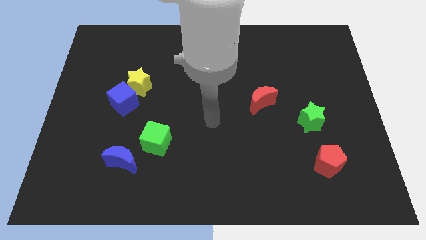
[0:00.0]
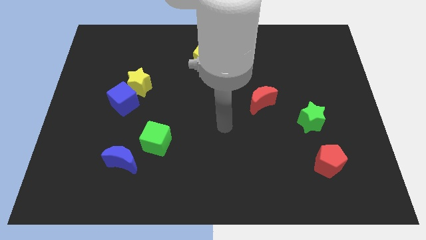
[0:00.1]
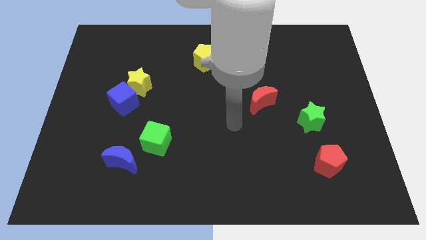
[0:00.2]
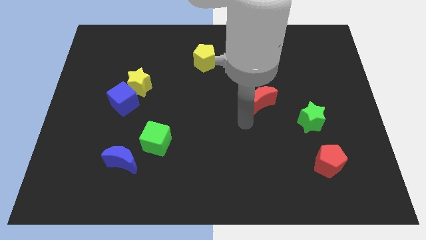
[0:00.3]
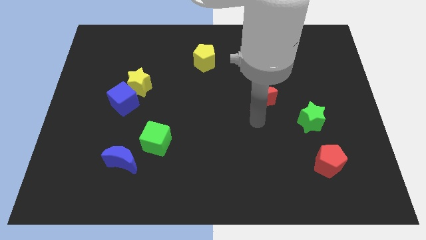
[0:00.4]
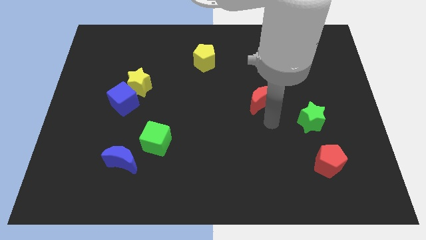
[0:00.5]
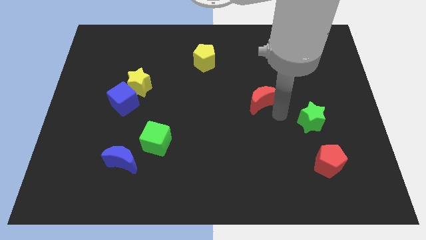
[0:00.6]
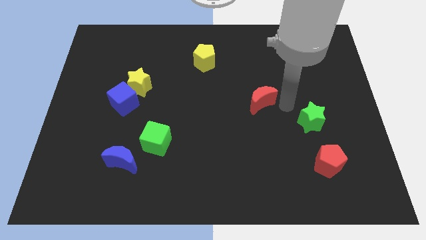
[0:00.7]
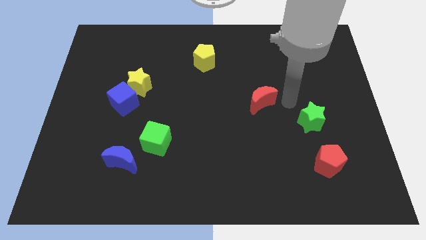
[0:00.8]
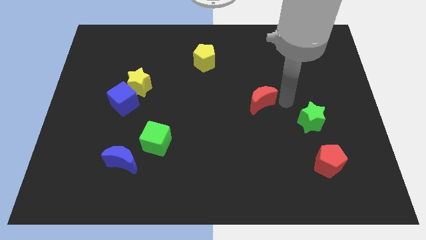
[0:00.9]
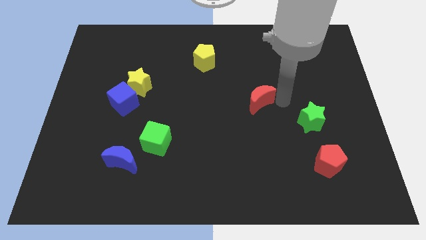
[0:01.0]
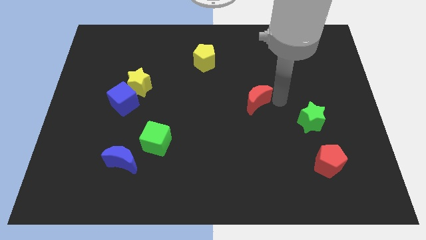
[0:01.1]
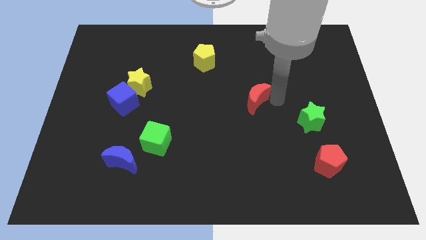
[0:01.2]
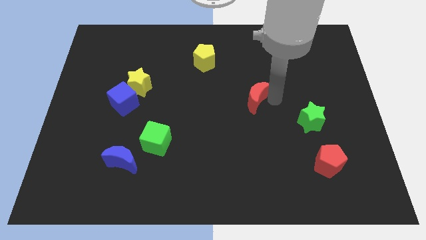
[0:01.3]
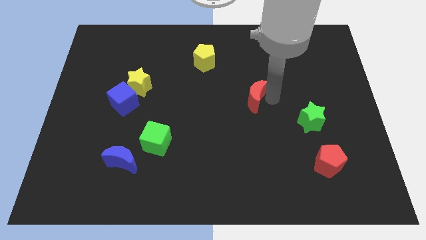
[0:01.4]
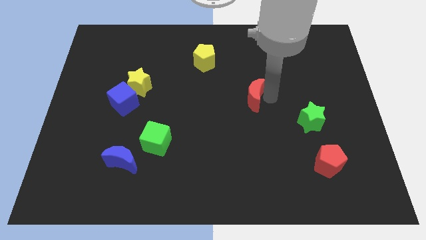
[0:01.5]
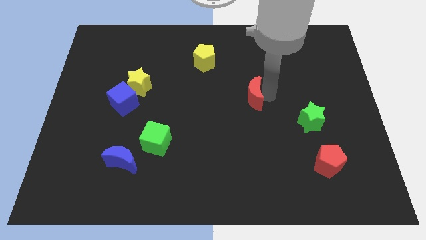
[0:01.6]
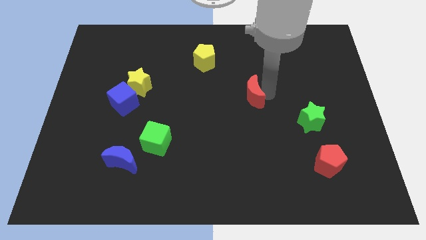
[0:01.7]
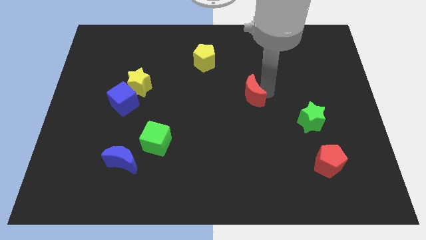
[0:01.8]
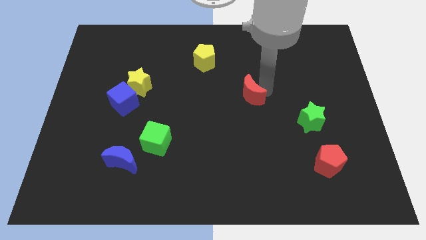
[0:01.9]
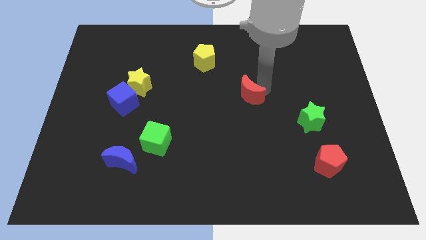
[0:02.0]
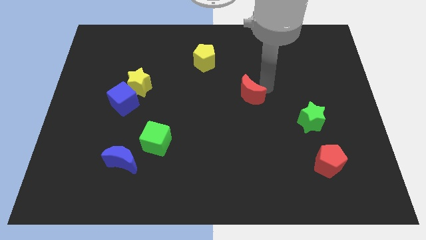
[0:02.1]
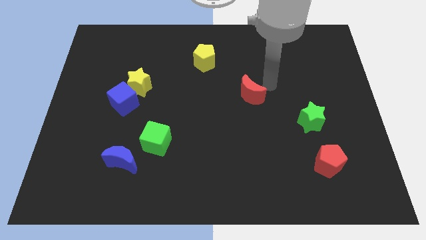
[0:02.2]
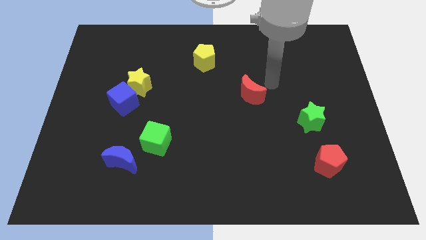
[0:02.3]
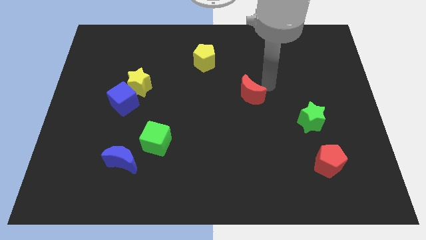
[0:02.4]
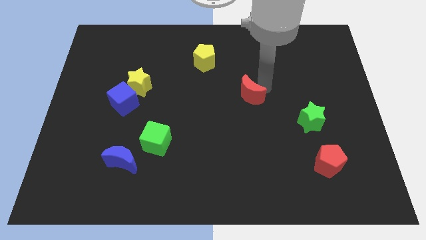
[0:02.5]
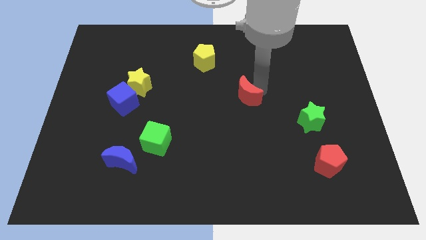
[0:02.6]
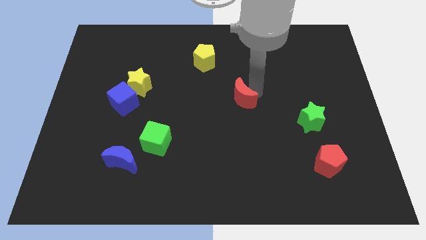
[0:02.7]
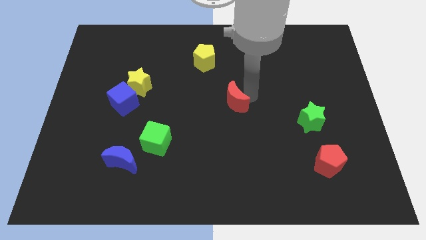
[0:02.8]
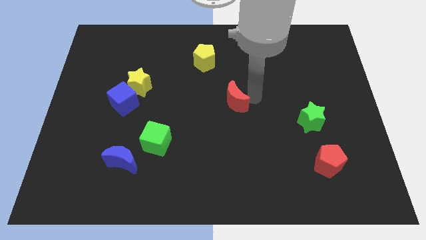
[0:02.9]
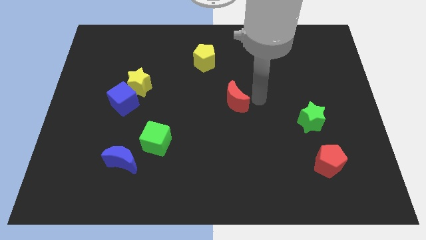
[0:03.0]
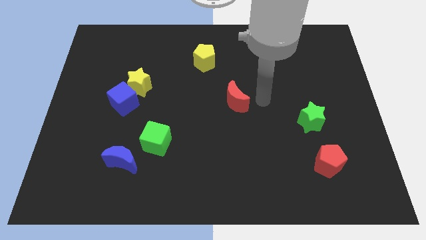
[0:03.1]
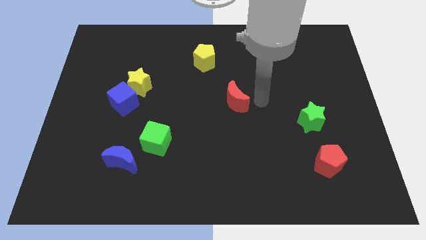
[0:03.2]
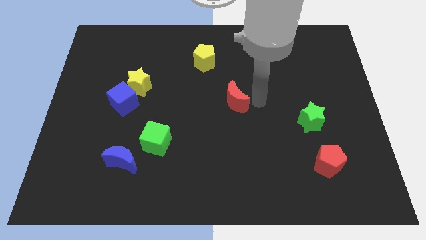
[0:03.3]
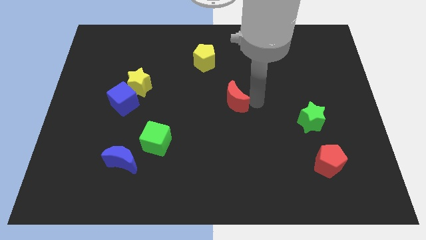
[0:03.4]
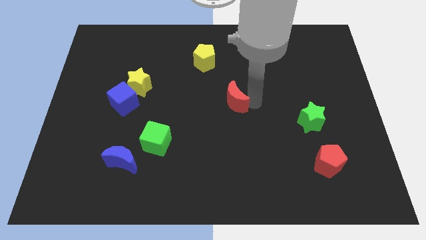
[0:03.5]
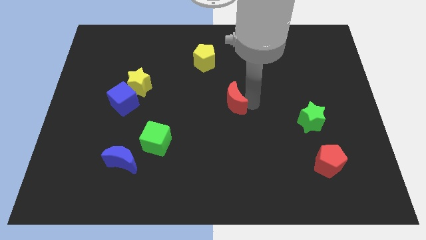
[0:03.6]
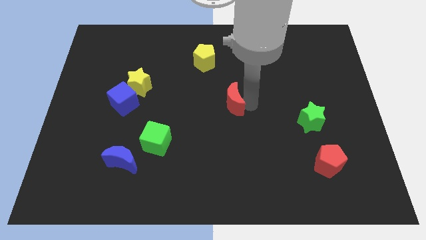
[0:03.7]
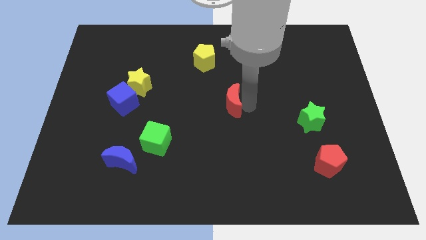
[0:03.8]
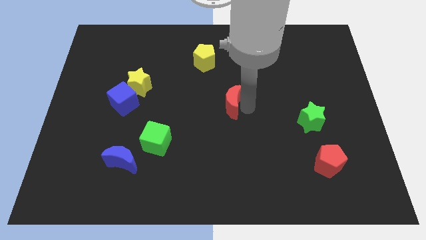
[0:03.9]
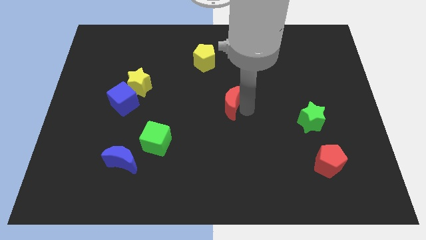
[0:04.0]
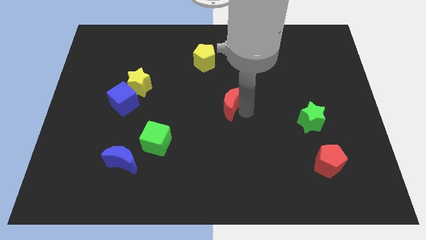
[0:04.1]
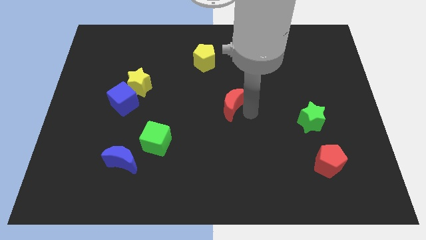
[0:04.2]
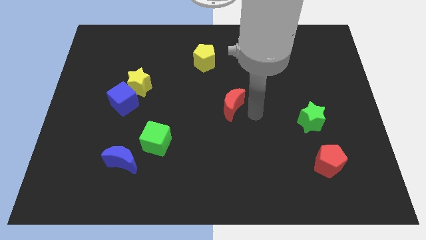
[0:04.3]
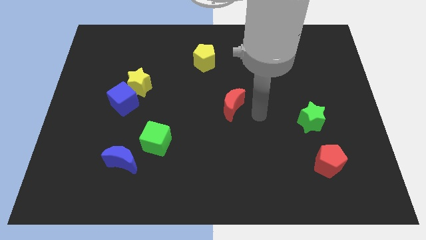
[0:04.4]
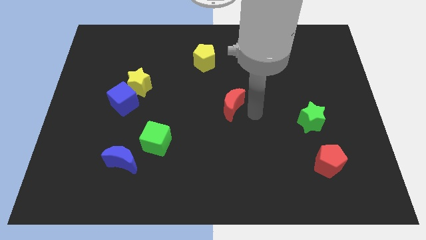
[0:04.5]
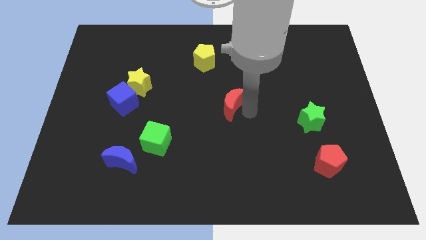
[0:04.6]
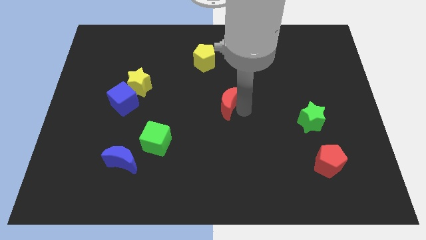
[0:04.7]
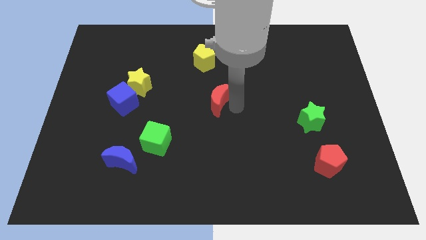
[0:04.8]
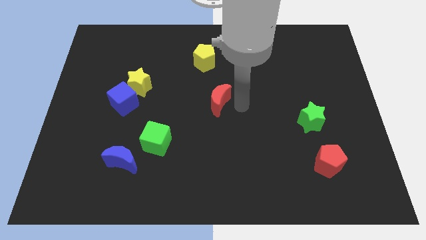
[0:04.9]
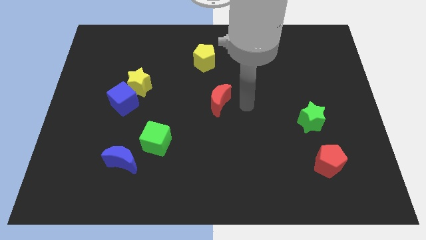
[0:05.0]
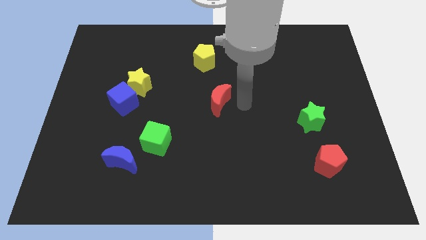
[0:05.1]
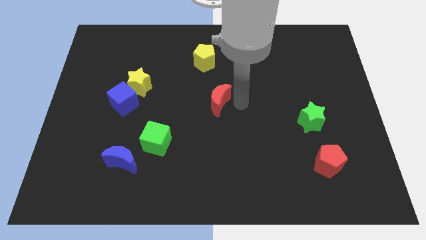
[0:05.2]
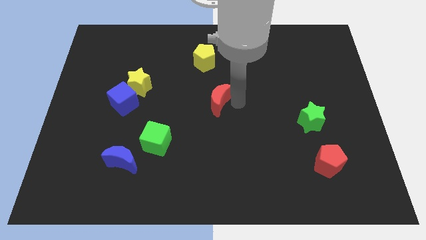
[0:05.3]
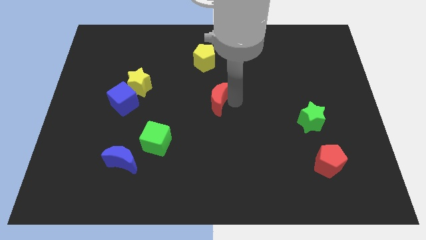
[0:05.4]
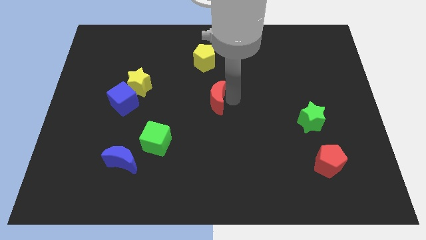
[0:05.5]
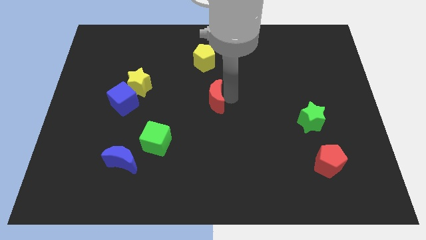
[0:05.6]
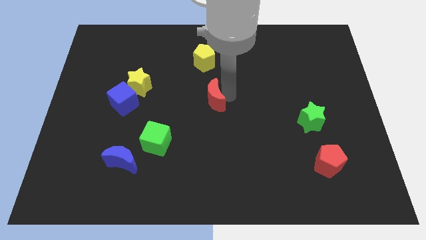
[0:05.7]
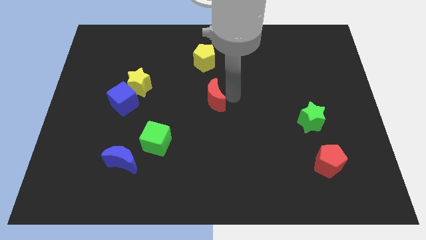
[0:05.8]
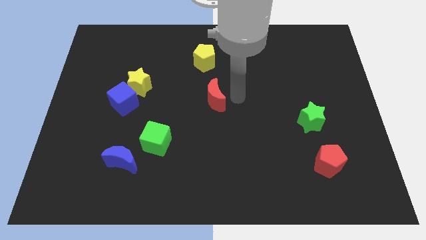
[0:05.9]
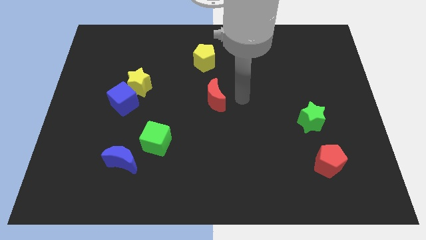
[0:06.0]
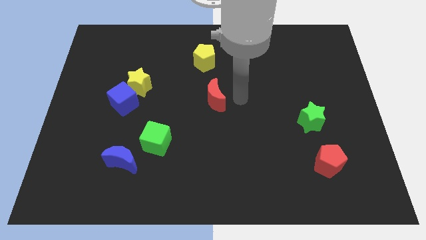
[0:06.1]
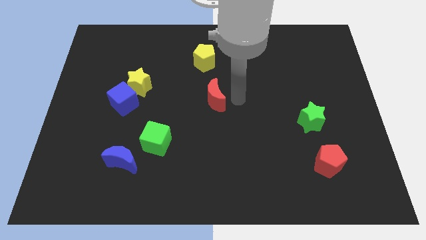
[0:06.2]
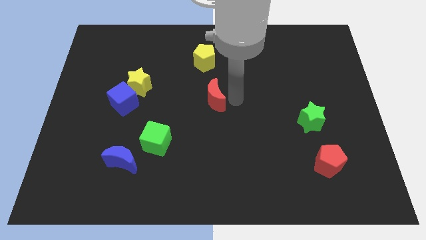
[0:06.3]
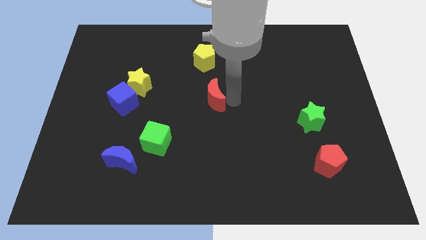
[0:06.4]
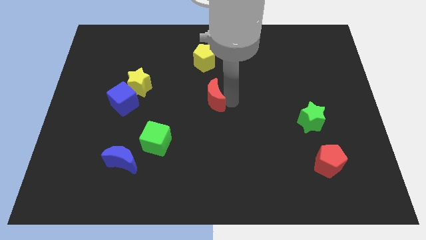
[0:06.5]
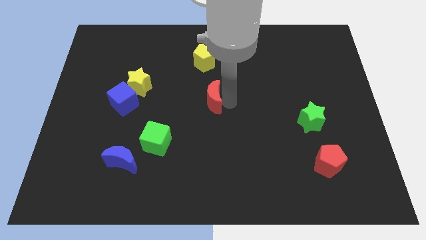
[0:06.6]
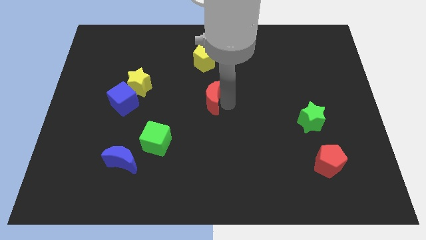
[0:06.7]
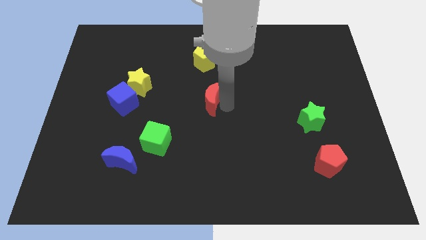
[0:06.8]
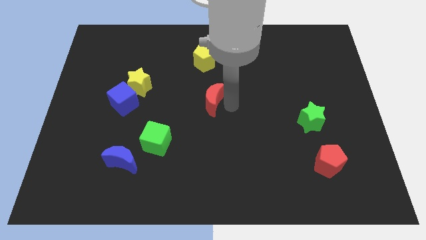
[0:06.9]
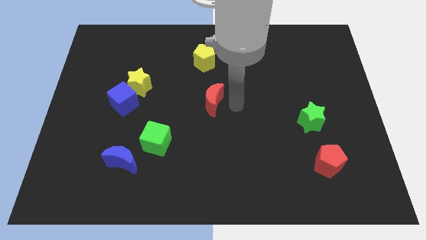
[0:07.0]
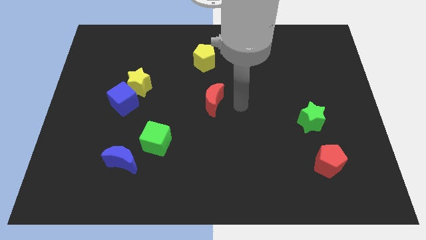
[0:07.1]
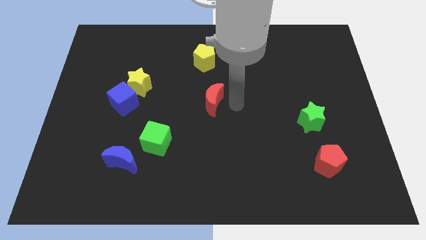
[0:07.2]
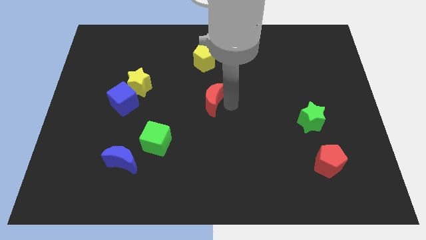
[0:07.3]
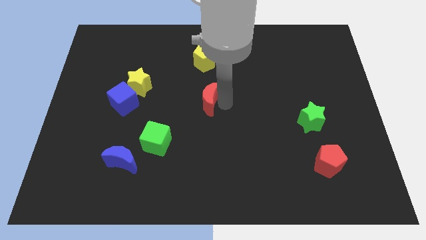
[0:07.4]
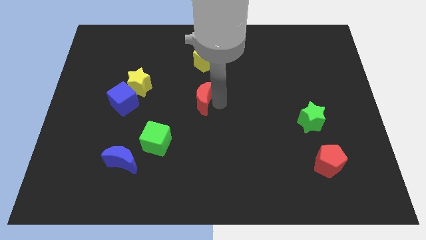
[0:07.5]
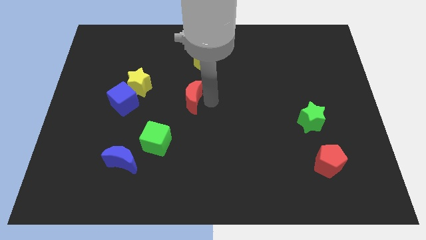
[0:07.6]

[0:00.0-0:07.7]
move the red moon just right of the blue cube
